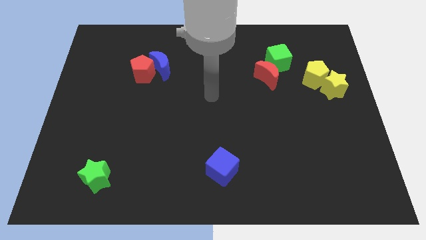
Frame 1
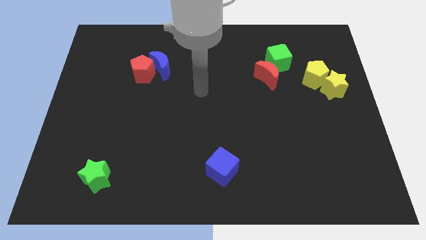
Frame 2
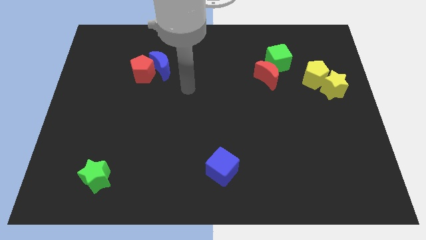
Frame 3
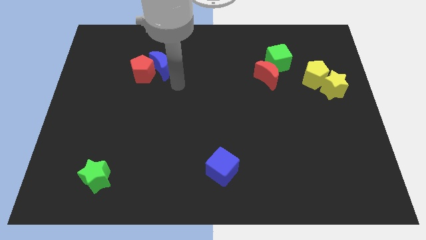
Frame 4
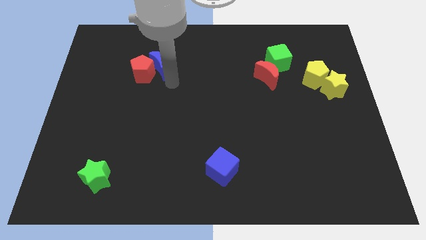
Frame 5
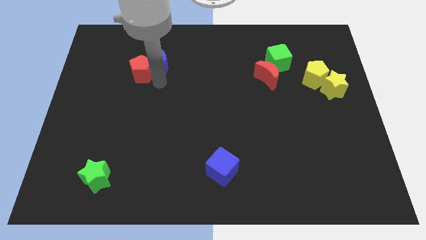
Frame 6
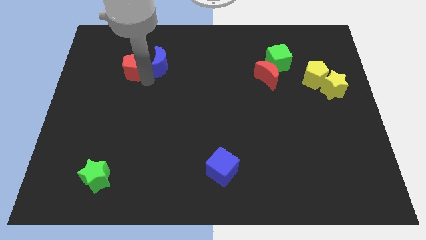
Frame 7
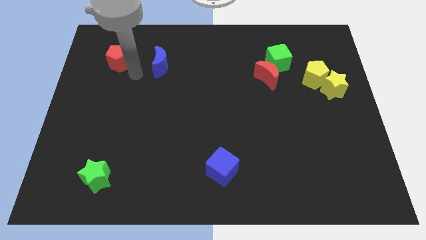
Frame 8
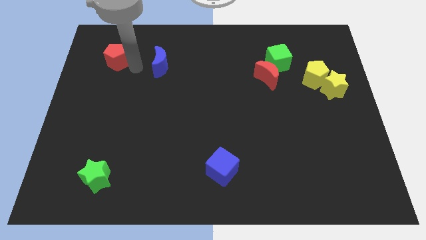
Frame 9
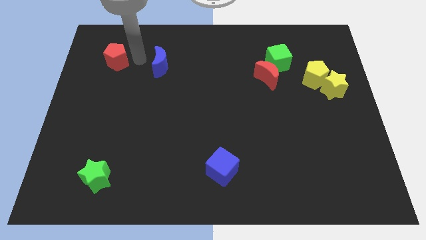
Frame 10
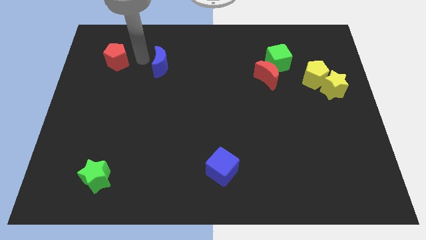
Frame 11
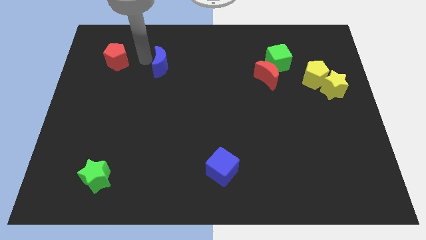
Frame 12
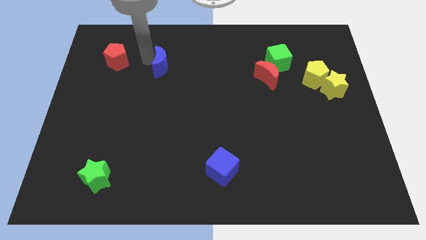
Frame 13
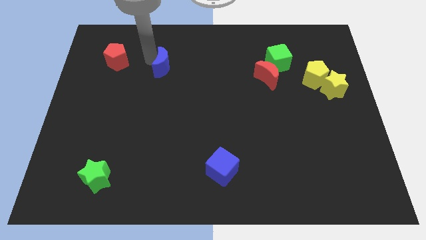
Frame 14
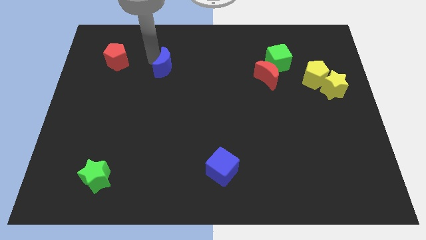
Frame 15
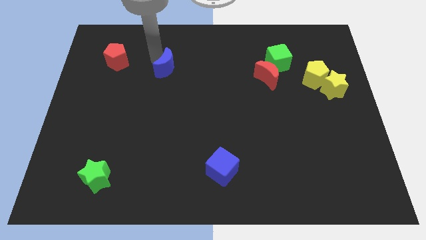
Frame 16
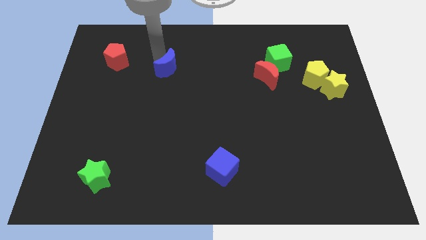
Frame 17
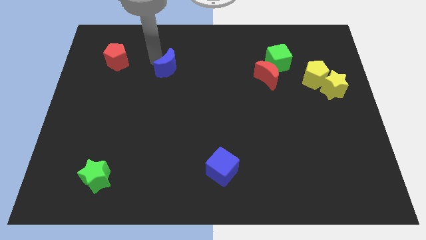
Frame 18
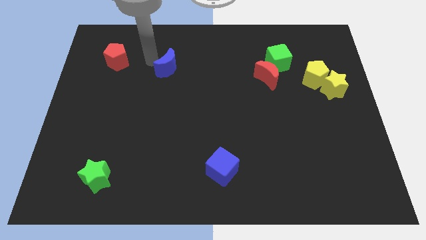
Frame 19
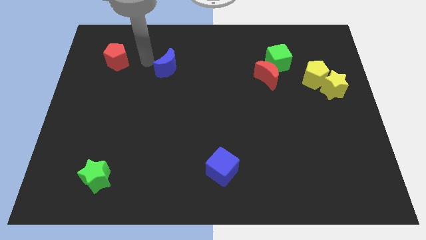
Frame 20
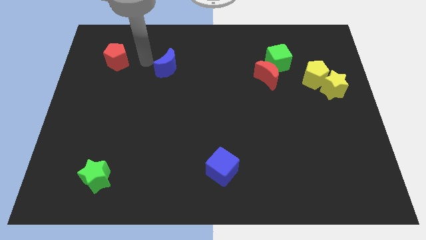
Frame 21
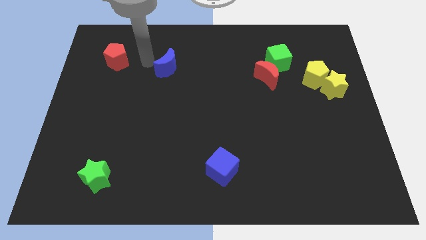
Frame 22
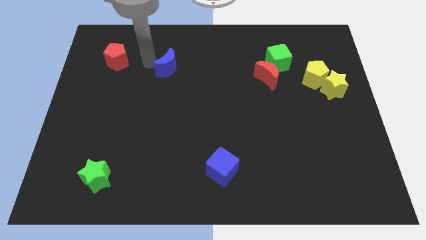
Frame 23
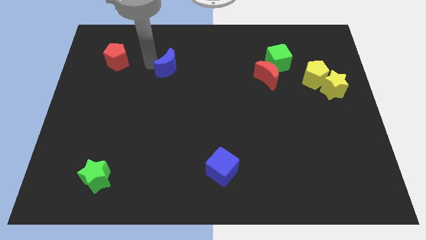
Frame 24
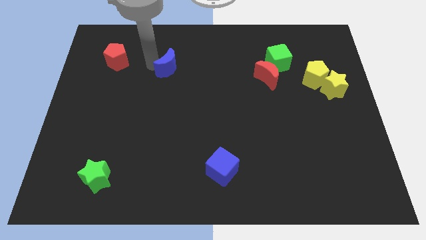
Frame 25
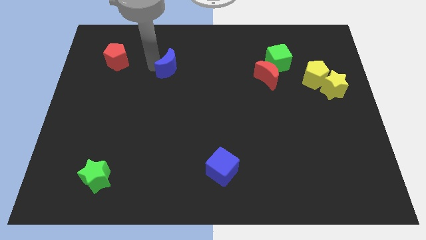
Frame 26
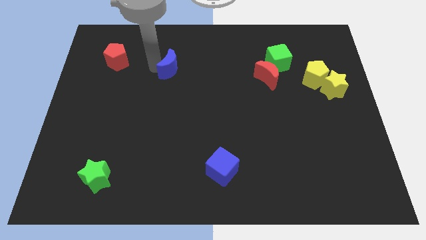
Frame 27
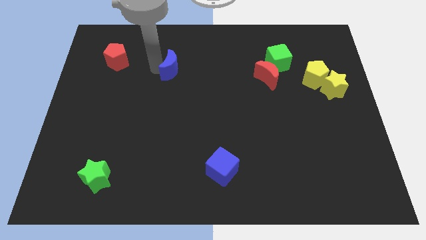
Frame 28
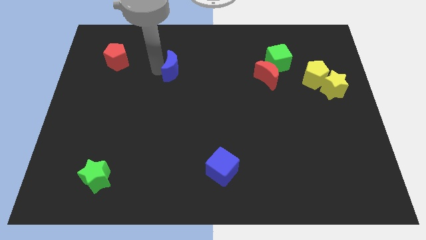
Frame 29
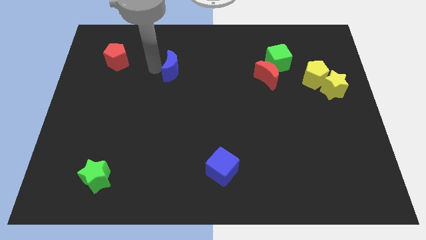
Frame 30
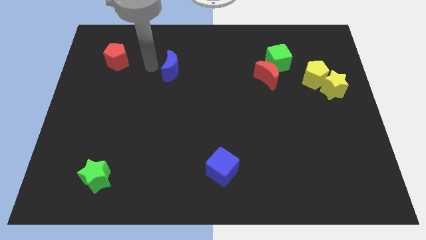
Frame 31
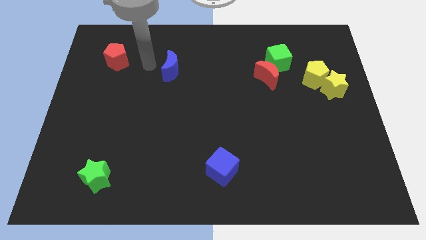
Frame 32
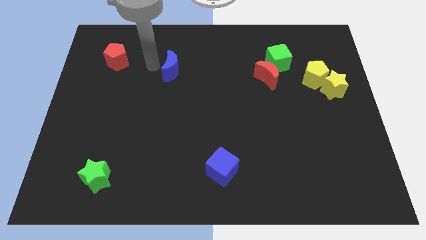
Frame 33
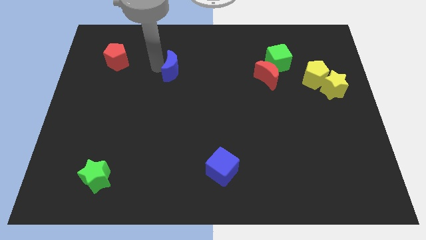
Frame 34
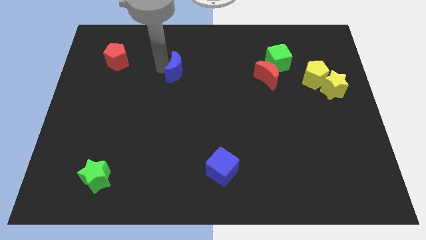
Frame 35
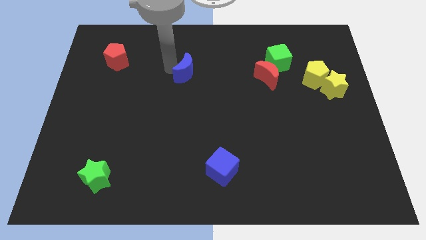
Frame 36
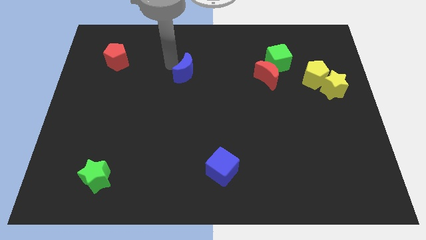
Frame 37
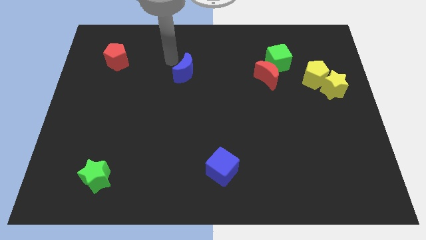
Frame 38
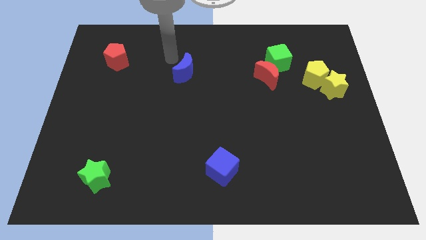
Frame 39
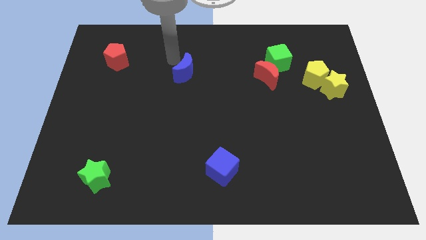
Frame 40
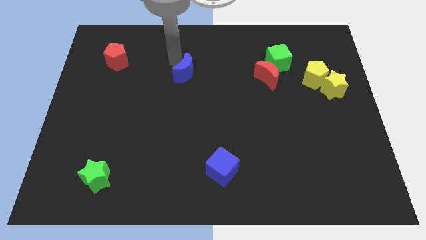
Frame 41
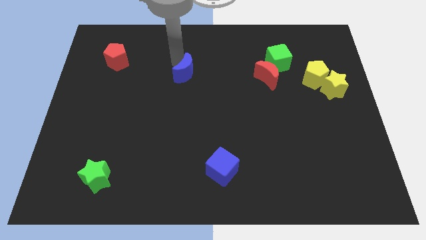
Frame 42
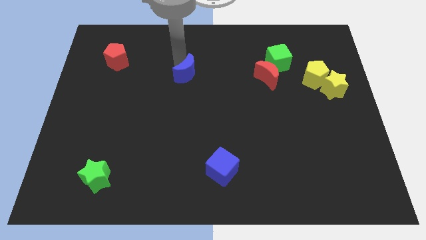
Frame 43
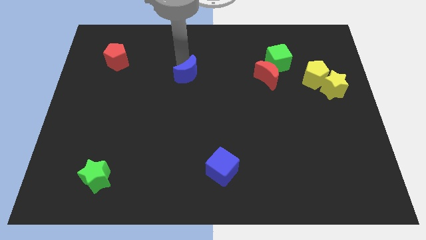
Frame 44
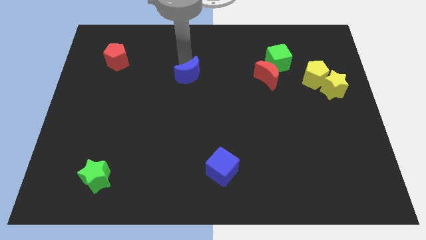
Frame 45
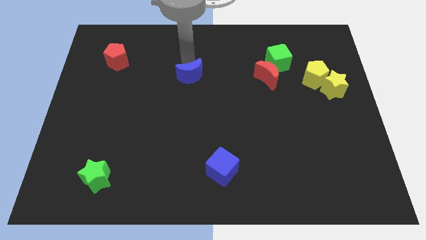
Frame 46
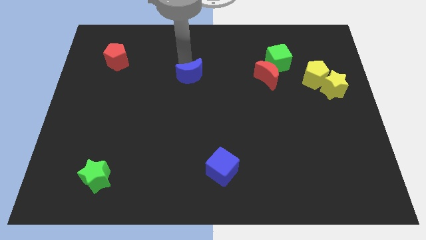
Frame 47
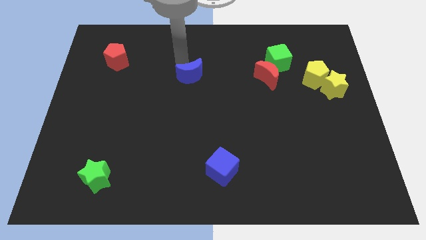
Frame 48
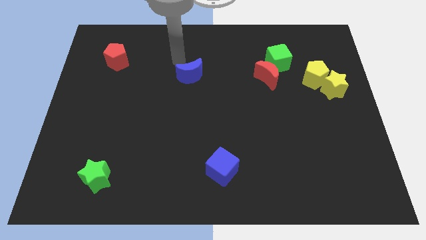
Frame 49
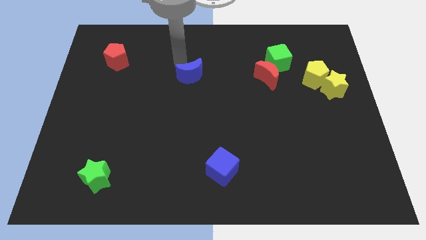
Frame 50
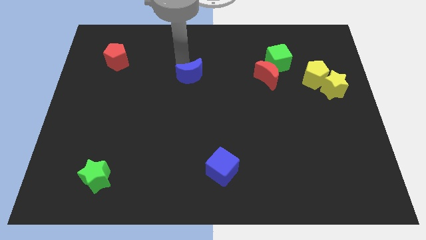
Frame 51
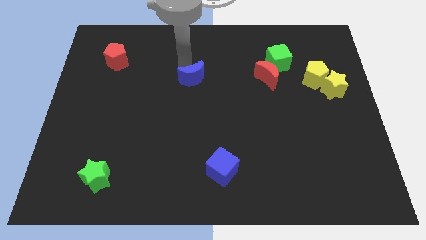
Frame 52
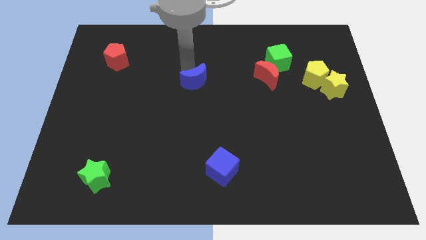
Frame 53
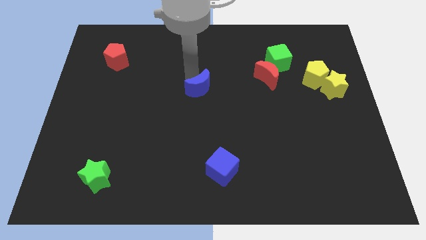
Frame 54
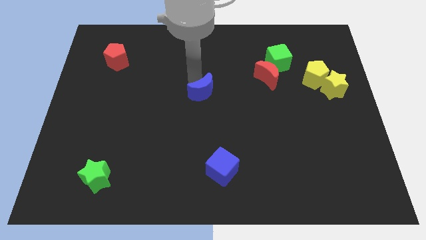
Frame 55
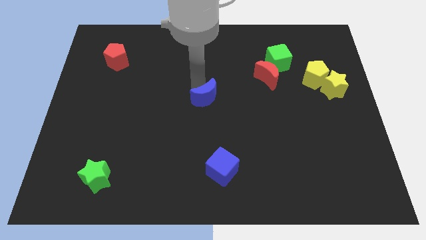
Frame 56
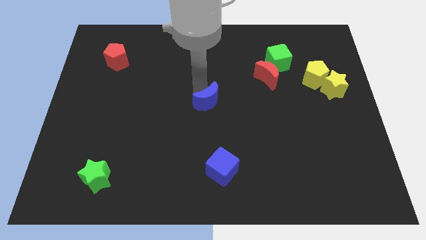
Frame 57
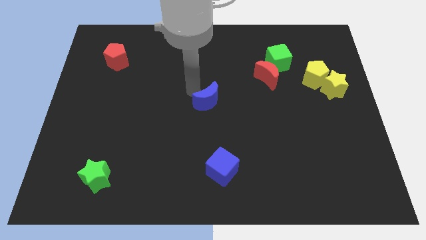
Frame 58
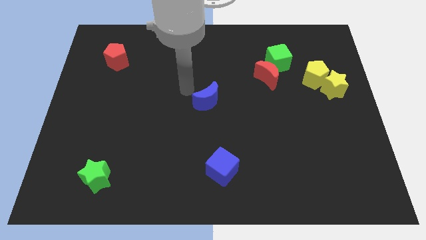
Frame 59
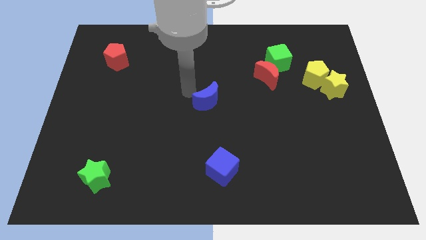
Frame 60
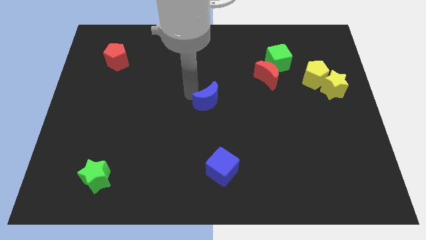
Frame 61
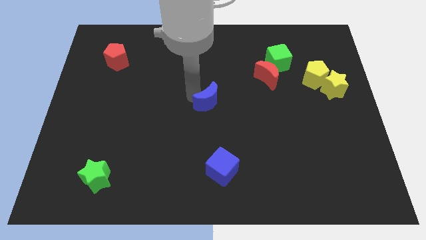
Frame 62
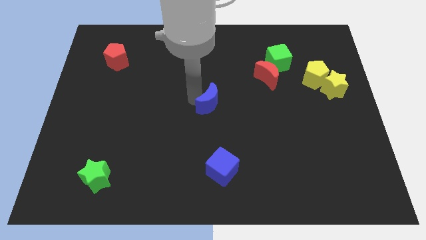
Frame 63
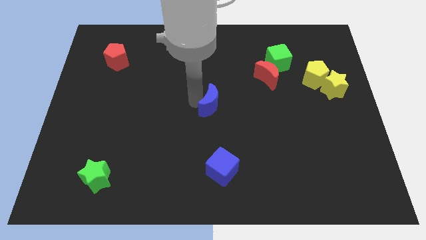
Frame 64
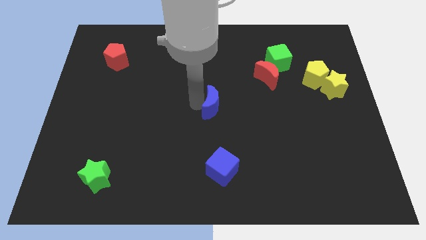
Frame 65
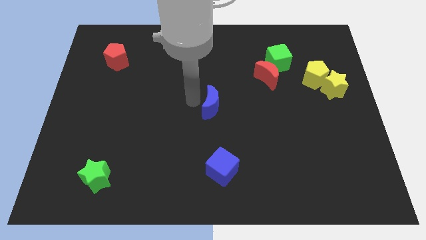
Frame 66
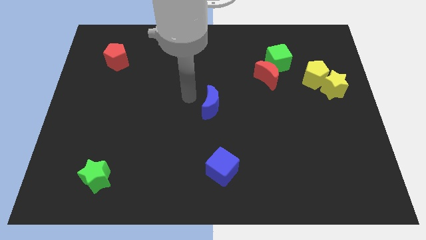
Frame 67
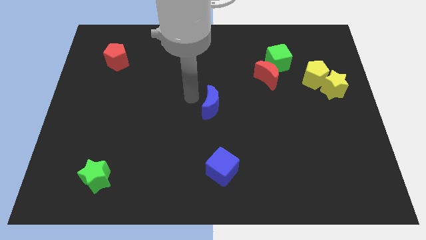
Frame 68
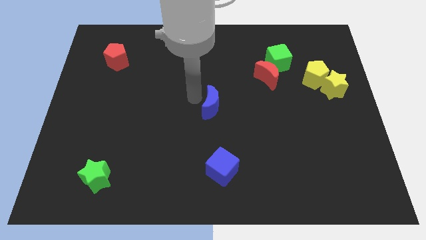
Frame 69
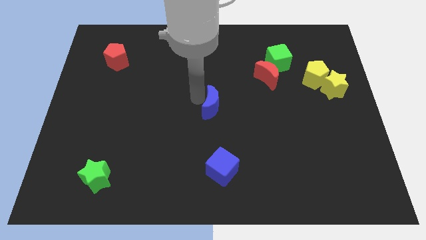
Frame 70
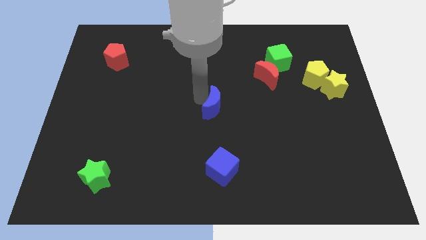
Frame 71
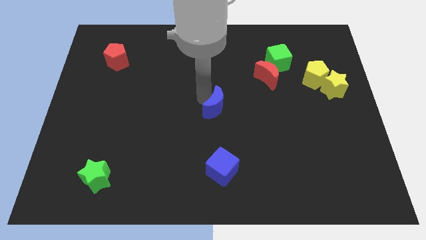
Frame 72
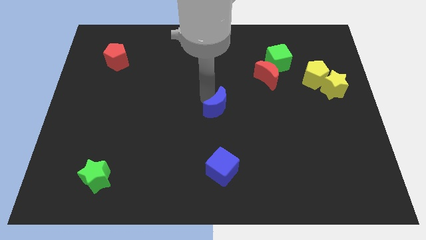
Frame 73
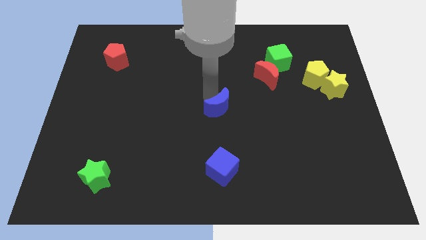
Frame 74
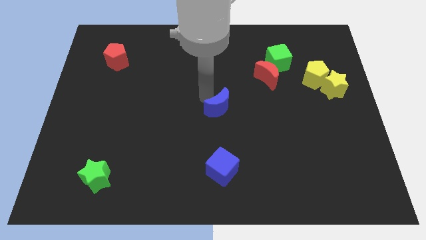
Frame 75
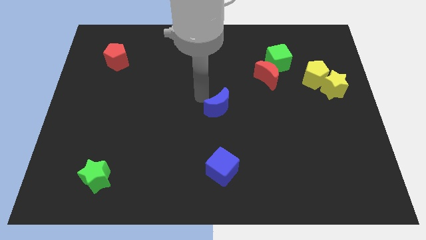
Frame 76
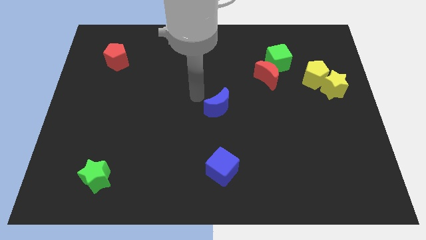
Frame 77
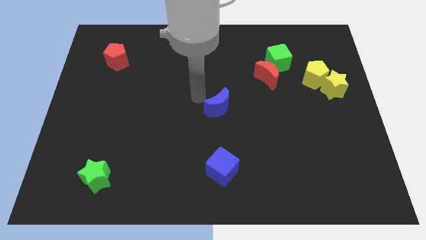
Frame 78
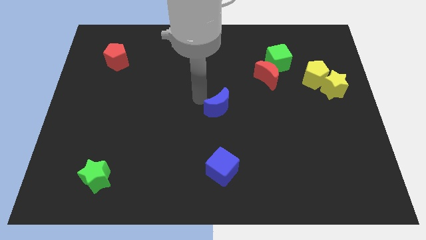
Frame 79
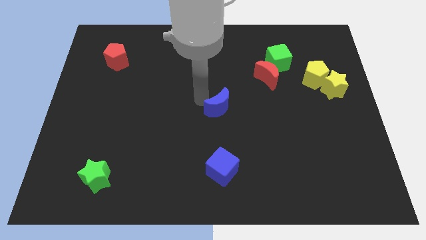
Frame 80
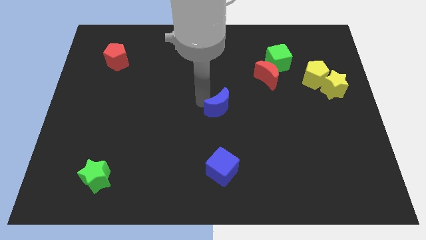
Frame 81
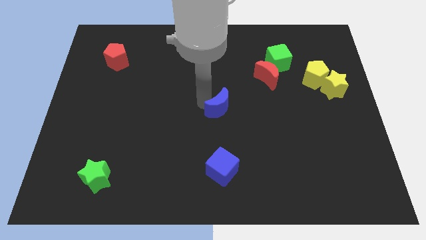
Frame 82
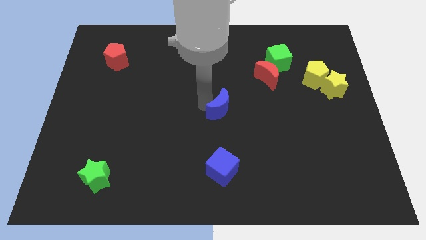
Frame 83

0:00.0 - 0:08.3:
slide the blue moon downwards and then right
